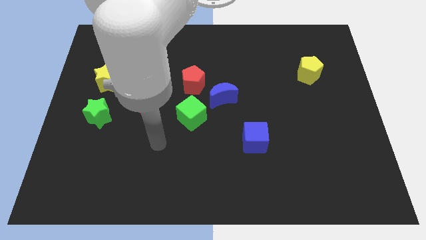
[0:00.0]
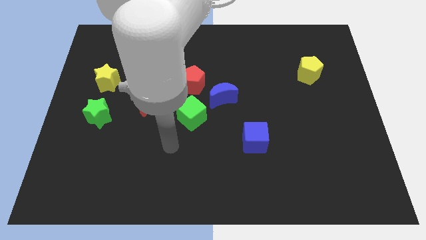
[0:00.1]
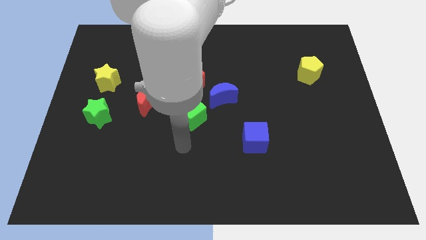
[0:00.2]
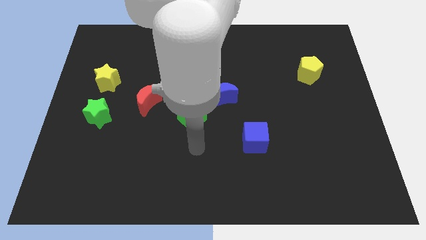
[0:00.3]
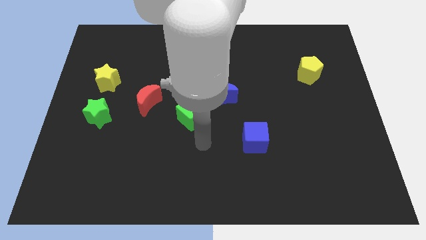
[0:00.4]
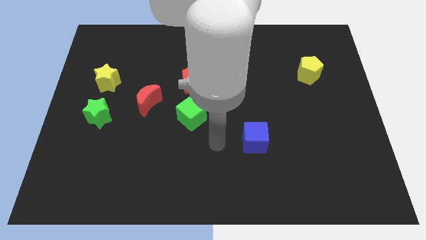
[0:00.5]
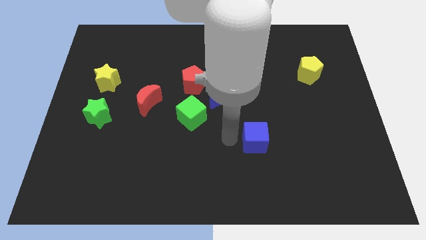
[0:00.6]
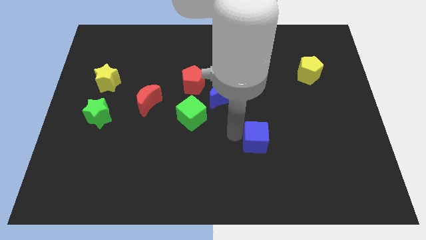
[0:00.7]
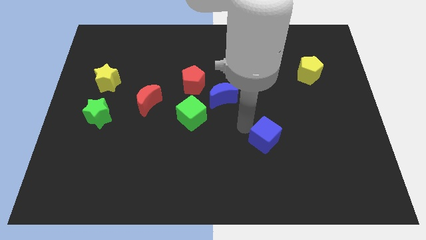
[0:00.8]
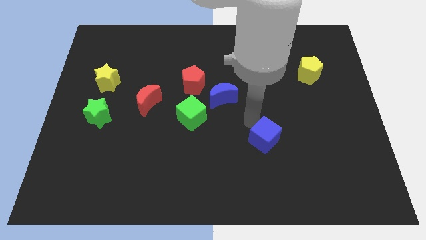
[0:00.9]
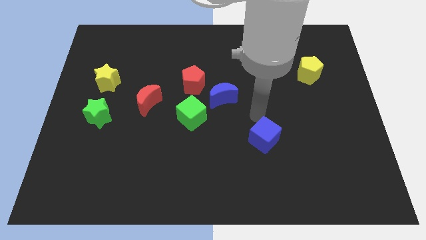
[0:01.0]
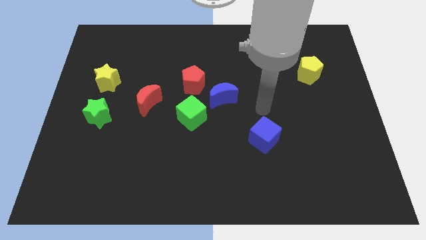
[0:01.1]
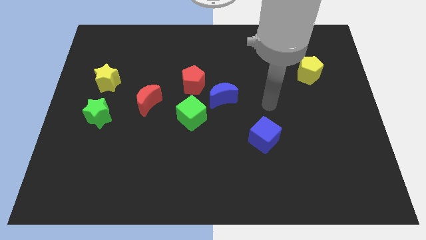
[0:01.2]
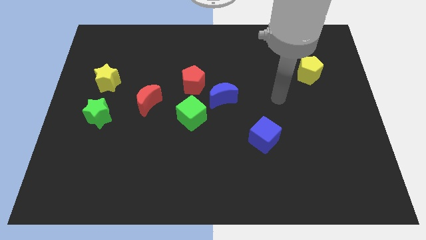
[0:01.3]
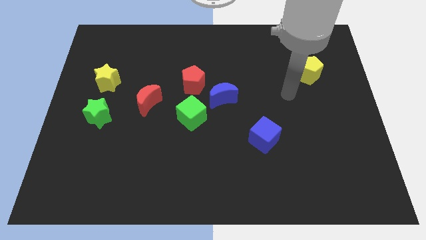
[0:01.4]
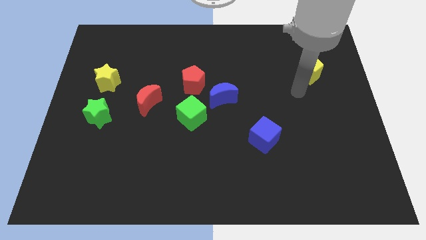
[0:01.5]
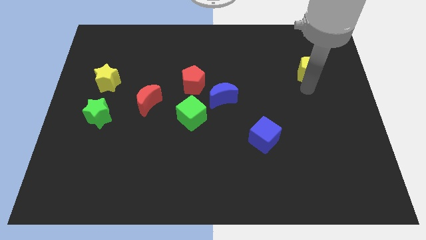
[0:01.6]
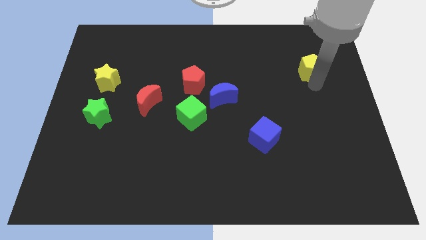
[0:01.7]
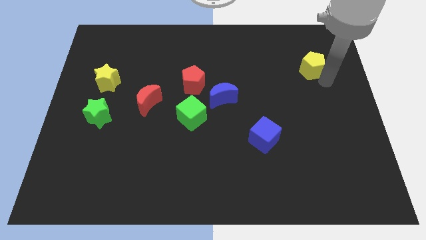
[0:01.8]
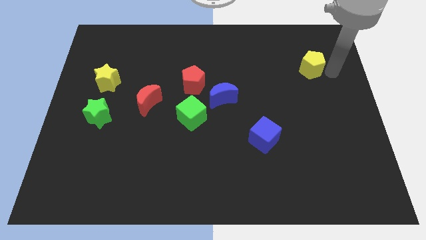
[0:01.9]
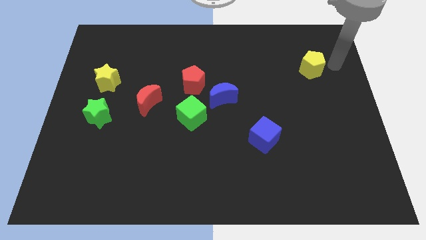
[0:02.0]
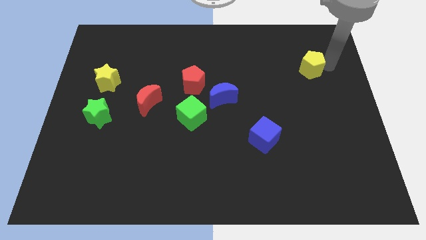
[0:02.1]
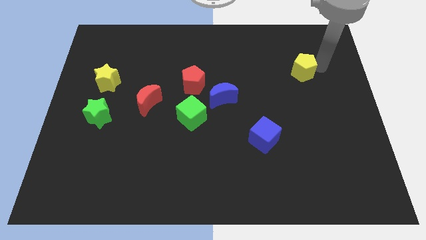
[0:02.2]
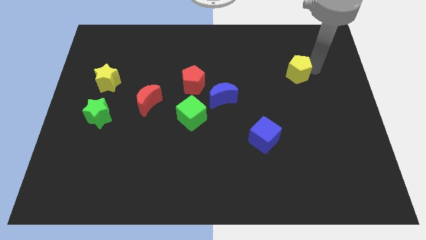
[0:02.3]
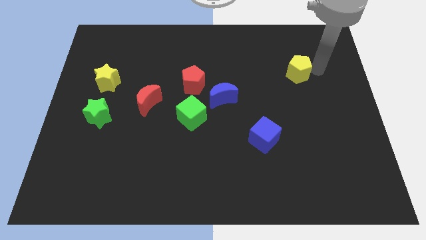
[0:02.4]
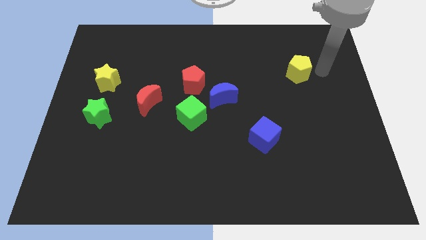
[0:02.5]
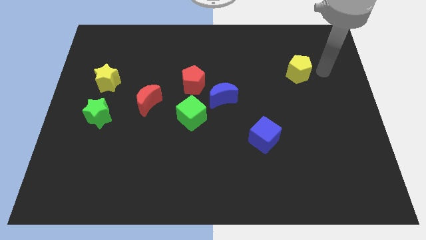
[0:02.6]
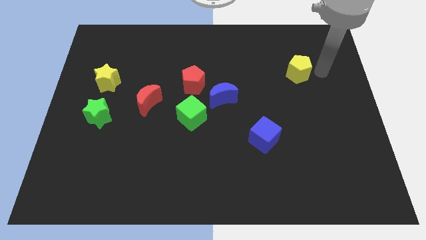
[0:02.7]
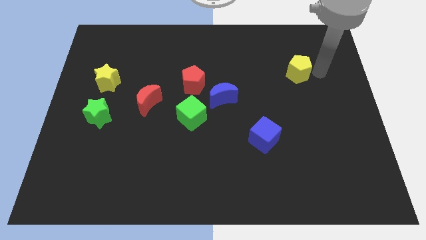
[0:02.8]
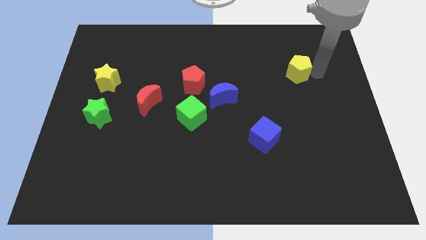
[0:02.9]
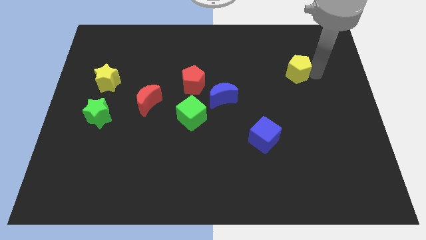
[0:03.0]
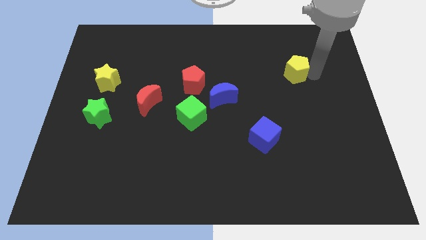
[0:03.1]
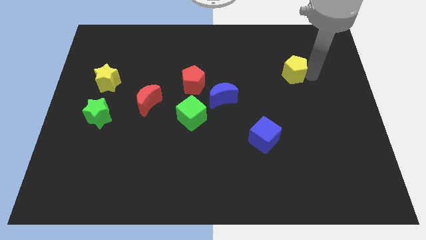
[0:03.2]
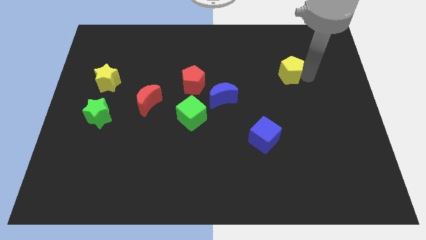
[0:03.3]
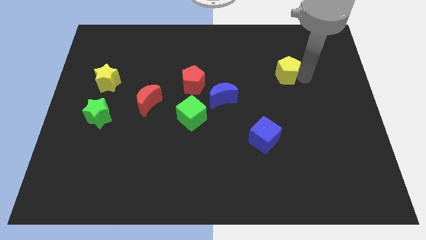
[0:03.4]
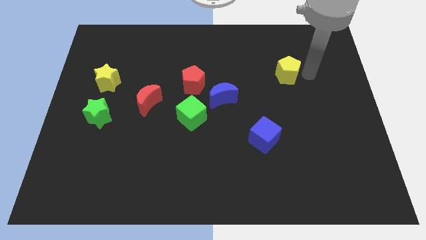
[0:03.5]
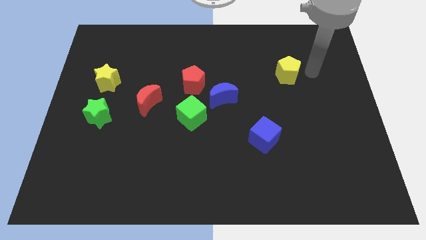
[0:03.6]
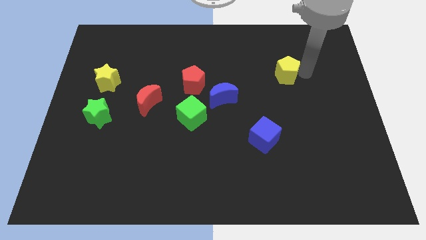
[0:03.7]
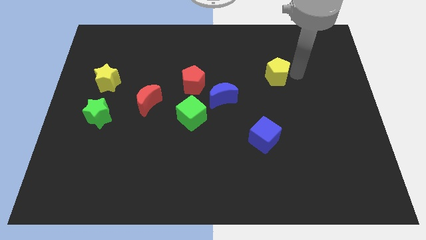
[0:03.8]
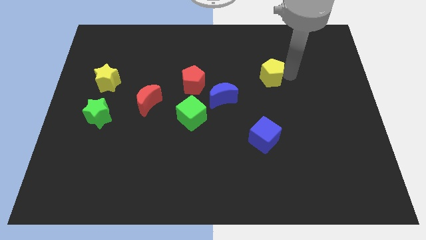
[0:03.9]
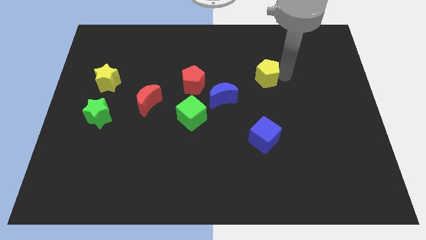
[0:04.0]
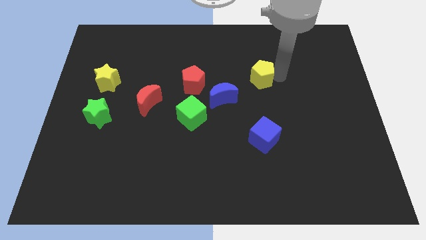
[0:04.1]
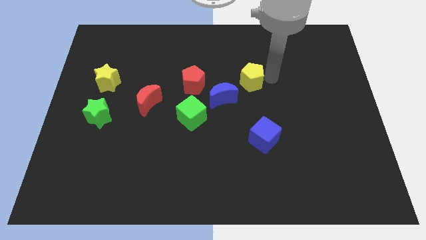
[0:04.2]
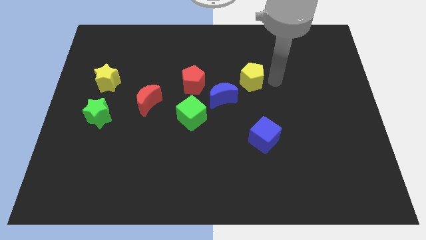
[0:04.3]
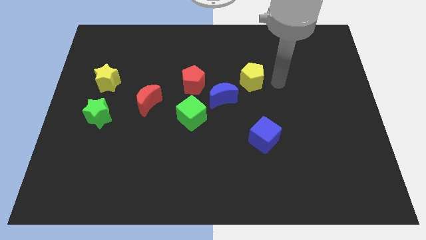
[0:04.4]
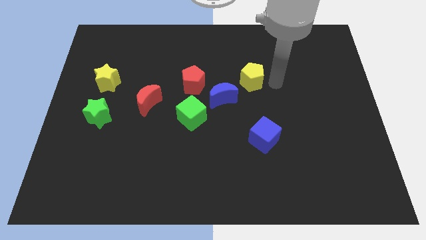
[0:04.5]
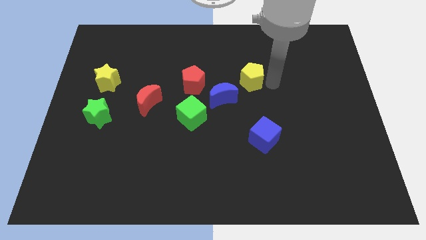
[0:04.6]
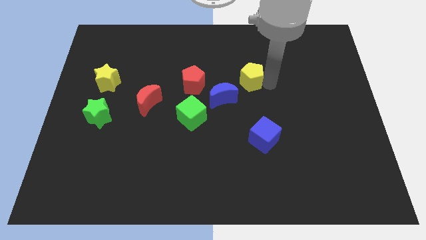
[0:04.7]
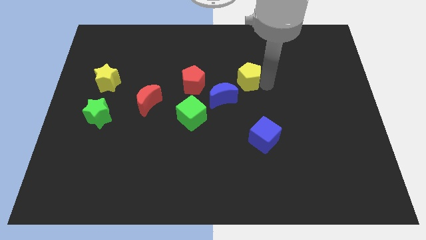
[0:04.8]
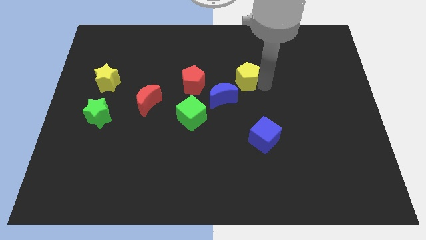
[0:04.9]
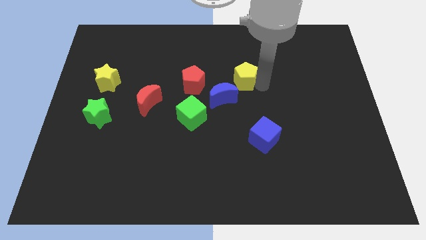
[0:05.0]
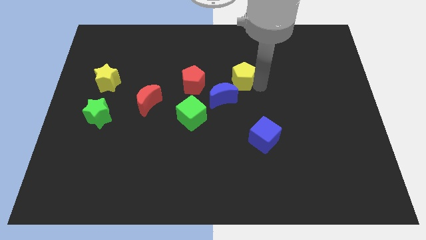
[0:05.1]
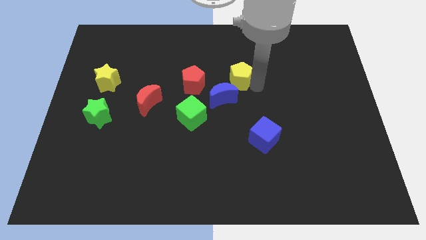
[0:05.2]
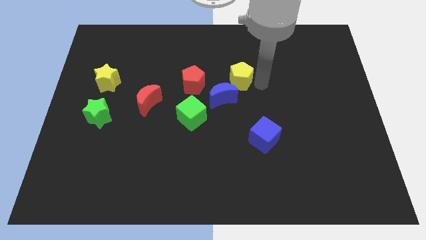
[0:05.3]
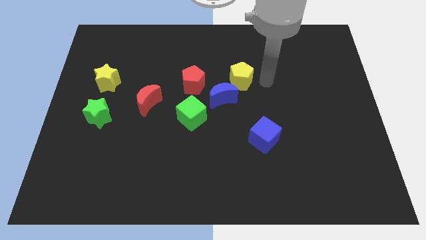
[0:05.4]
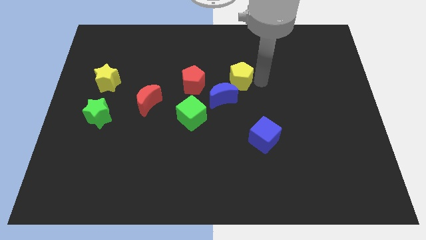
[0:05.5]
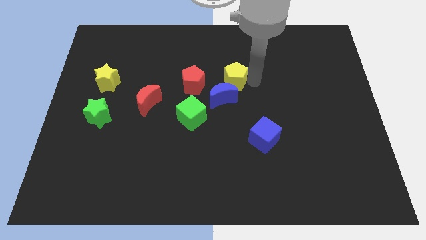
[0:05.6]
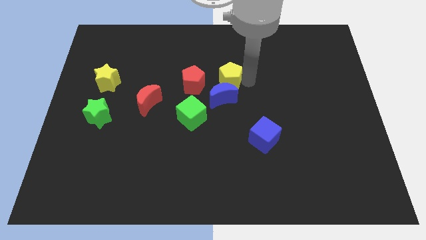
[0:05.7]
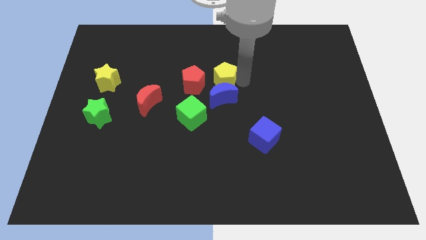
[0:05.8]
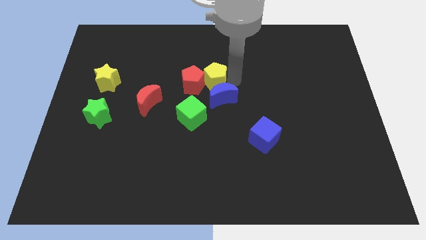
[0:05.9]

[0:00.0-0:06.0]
move the yellow pentagon close to the red pentagon
